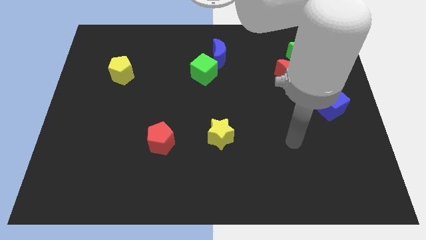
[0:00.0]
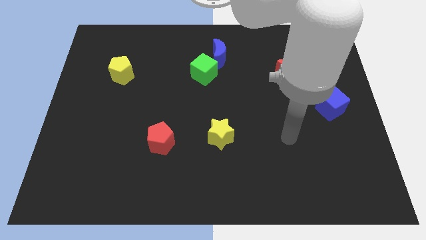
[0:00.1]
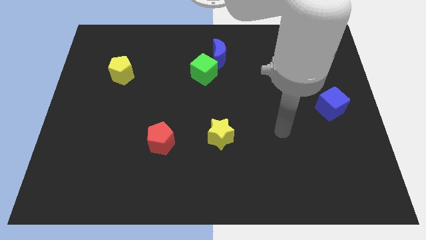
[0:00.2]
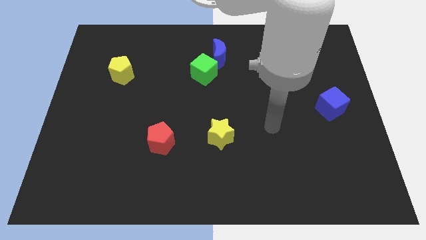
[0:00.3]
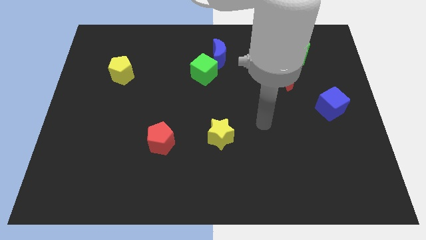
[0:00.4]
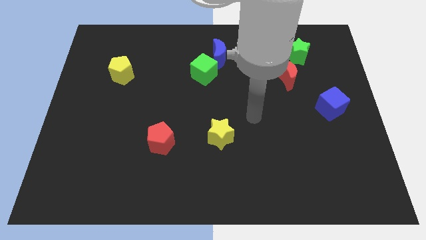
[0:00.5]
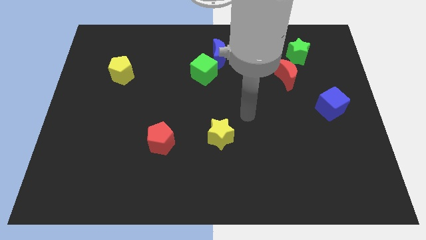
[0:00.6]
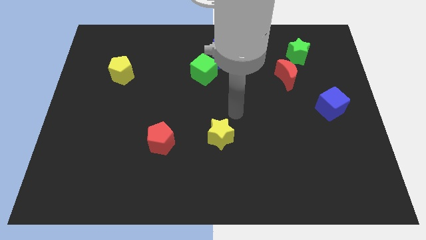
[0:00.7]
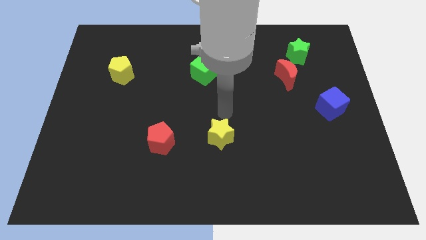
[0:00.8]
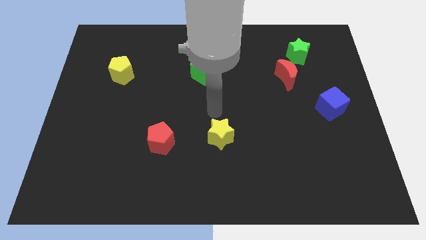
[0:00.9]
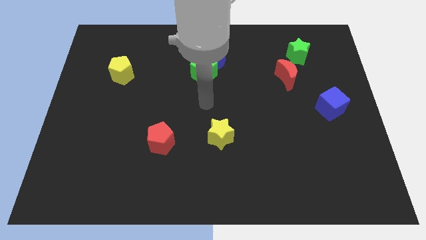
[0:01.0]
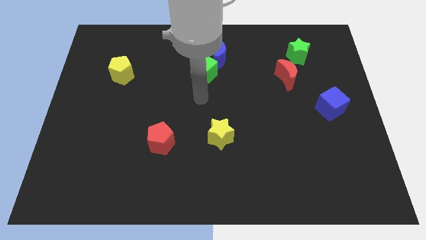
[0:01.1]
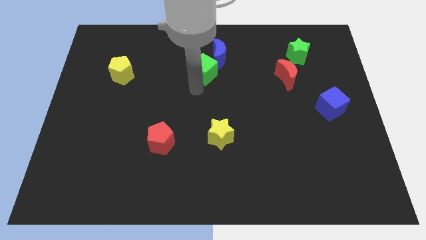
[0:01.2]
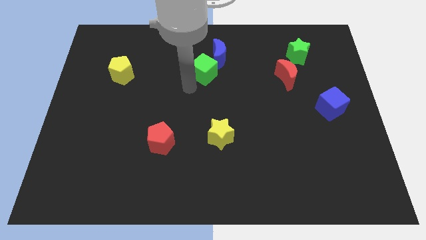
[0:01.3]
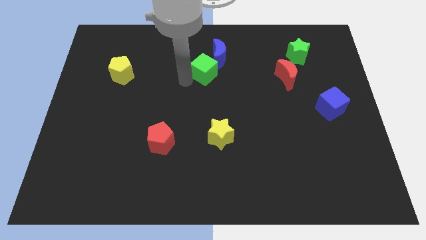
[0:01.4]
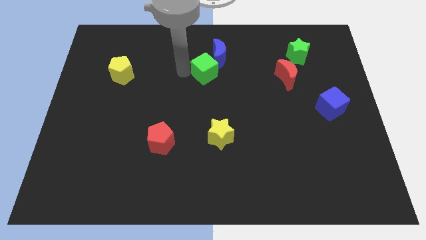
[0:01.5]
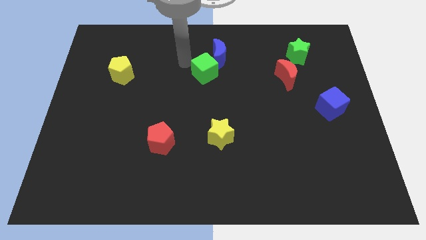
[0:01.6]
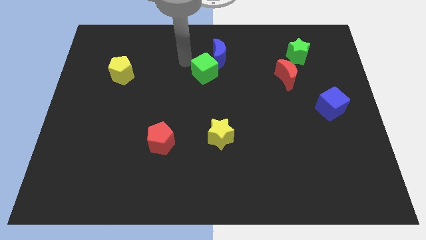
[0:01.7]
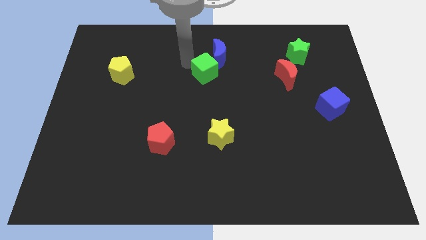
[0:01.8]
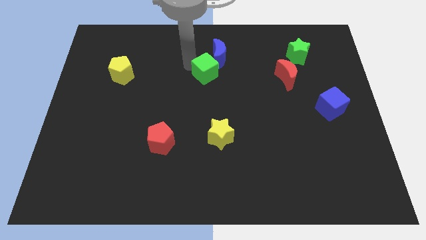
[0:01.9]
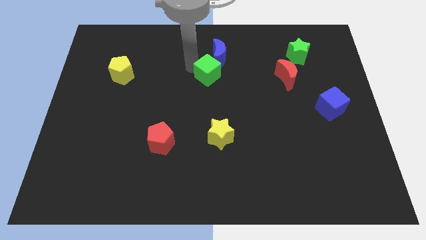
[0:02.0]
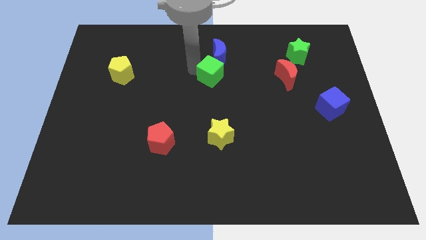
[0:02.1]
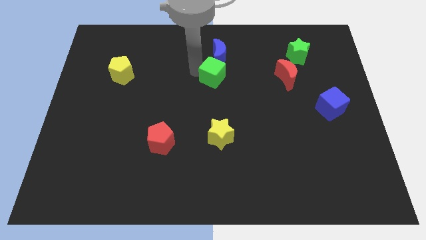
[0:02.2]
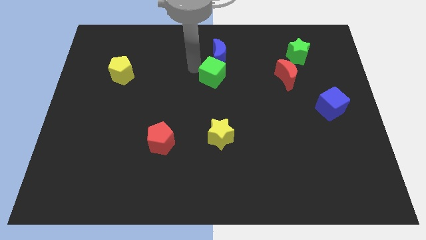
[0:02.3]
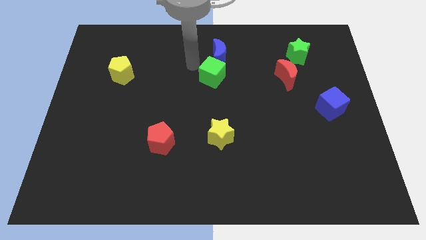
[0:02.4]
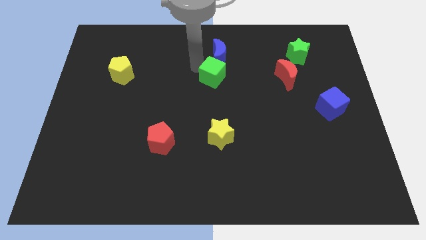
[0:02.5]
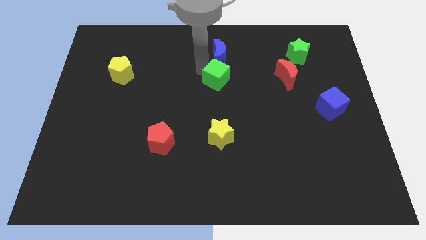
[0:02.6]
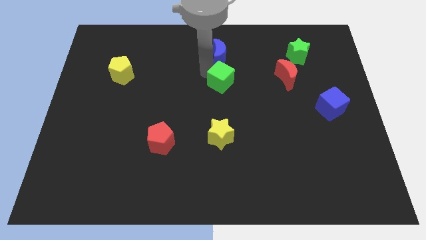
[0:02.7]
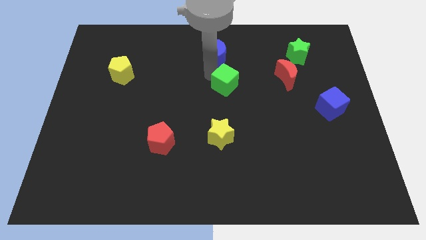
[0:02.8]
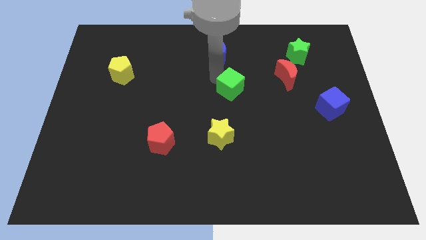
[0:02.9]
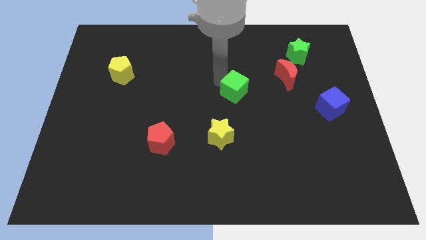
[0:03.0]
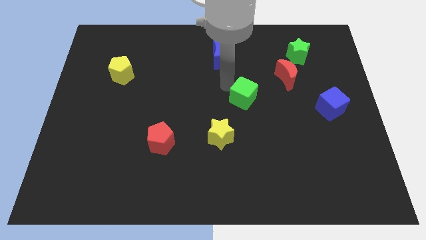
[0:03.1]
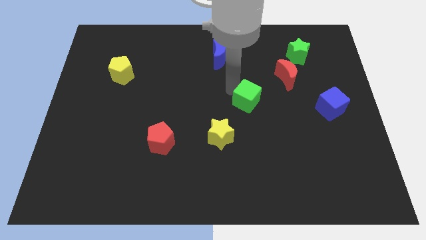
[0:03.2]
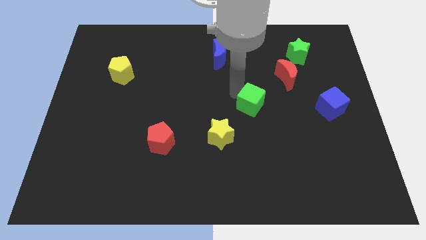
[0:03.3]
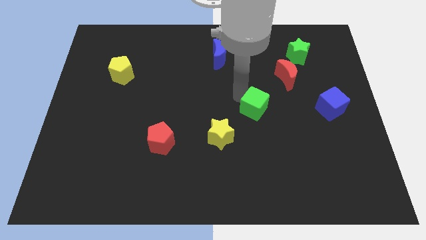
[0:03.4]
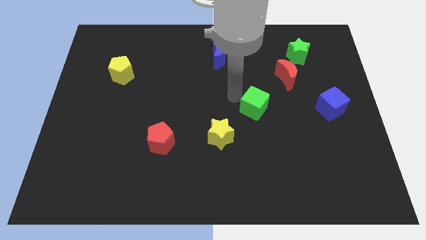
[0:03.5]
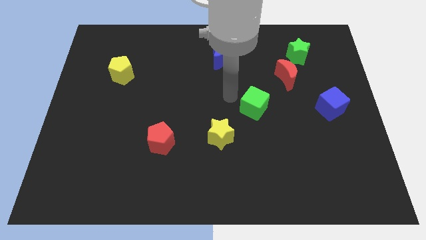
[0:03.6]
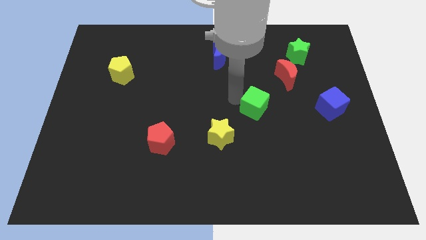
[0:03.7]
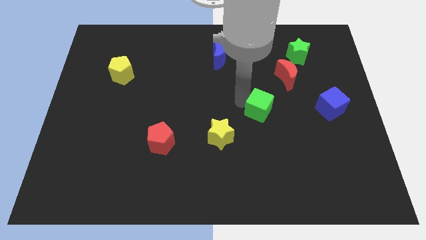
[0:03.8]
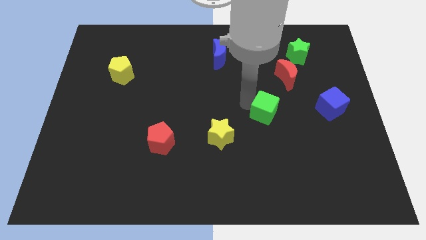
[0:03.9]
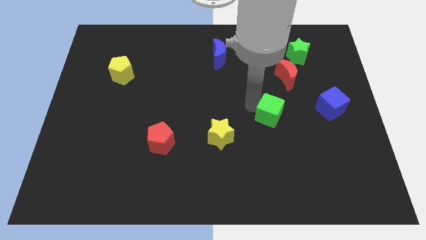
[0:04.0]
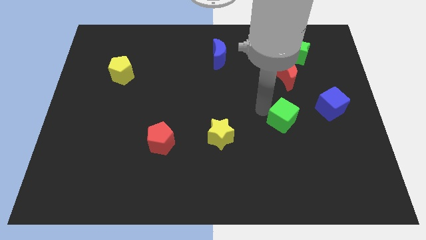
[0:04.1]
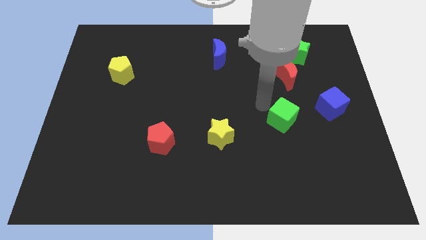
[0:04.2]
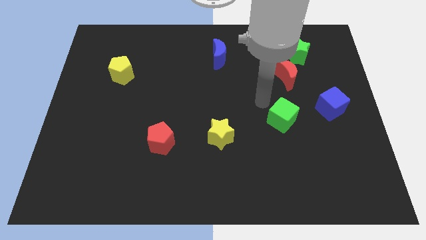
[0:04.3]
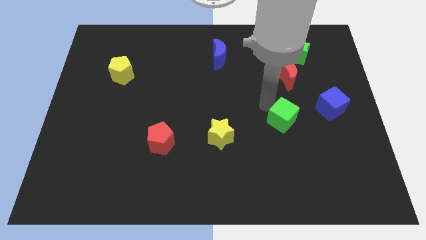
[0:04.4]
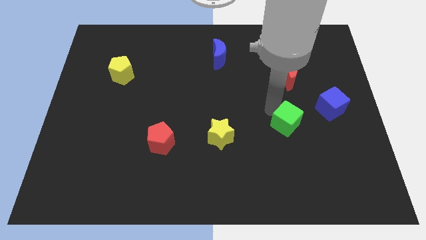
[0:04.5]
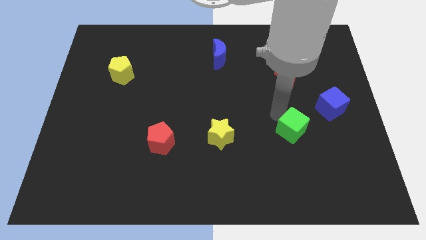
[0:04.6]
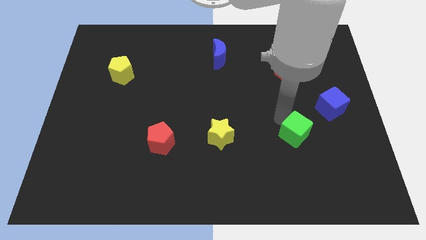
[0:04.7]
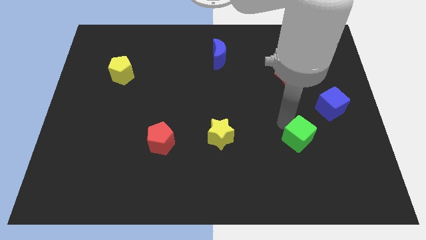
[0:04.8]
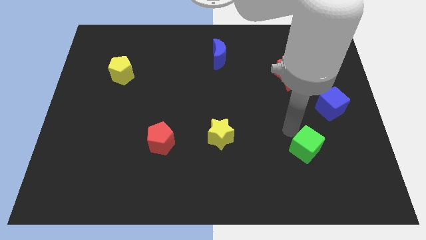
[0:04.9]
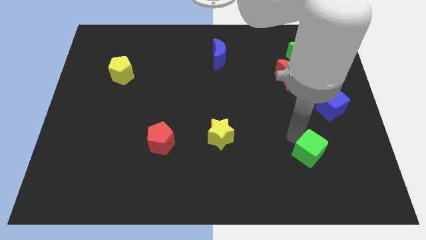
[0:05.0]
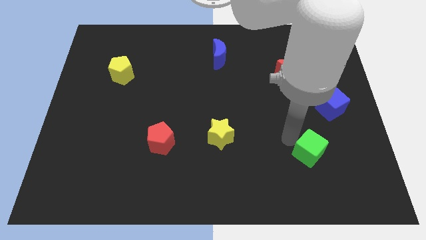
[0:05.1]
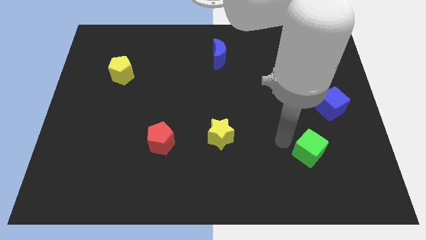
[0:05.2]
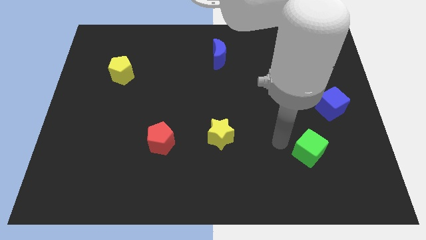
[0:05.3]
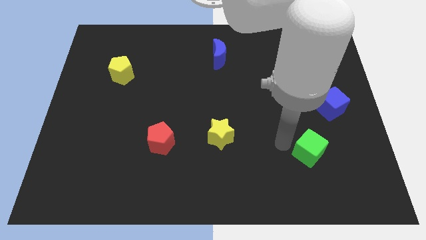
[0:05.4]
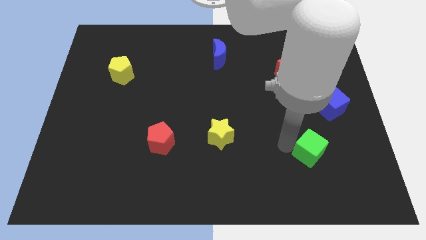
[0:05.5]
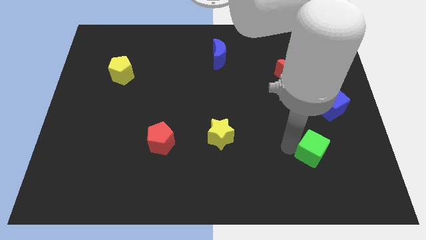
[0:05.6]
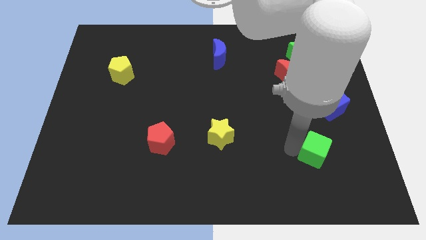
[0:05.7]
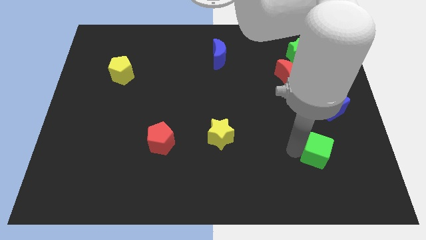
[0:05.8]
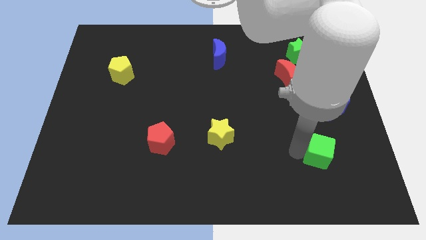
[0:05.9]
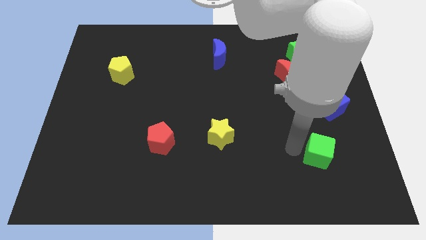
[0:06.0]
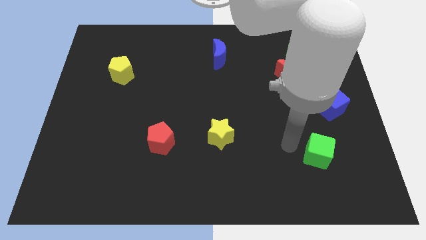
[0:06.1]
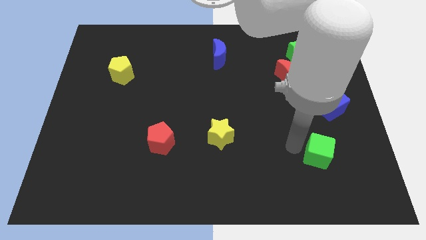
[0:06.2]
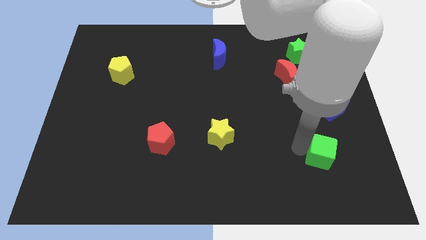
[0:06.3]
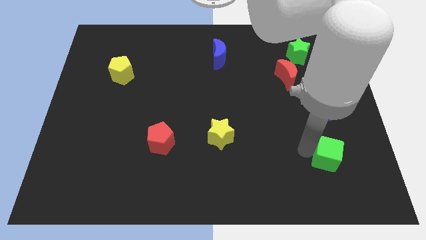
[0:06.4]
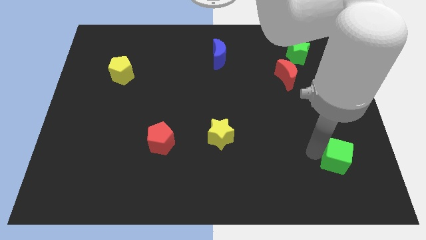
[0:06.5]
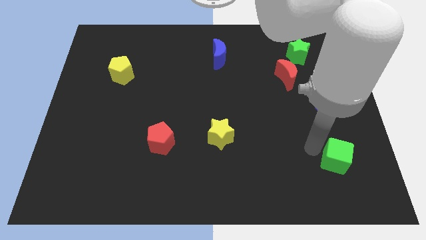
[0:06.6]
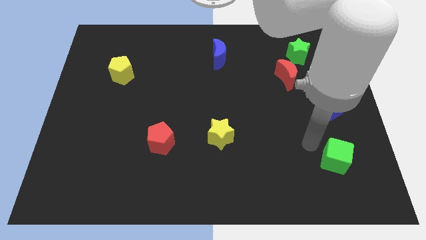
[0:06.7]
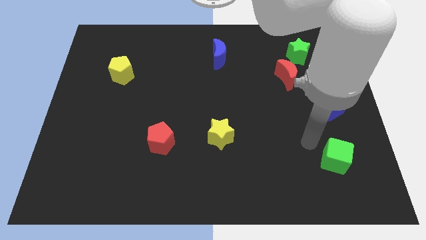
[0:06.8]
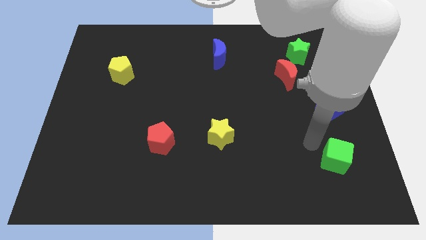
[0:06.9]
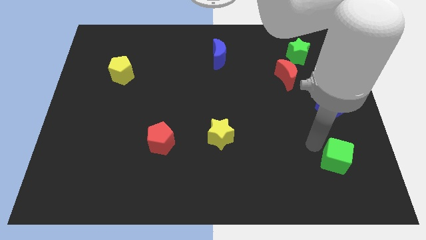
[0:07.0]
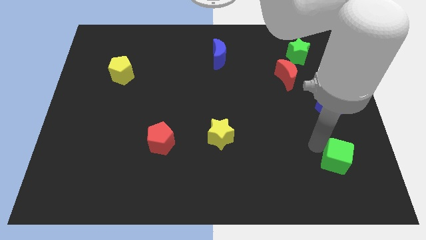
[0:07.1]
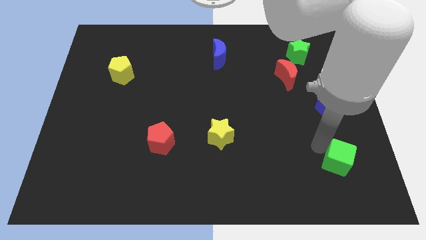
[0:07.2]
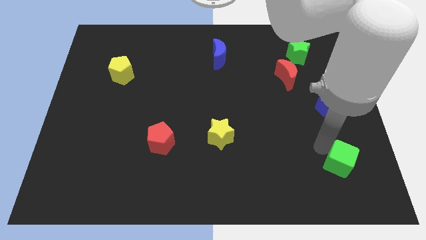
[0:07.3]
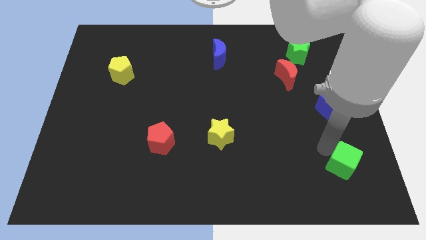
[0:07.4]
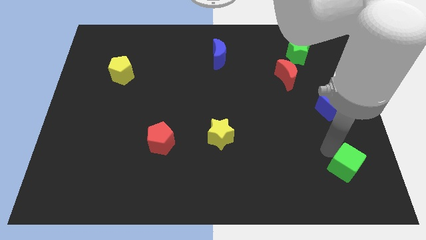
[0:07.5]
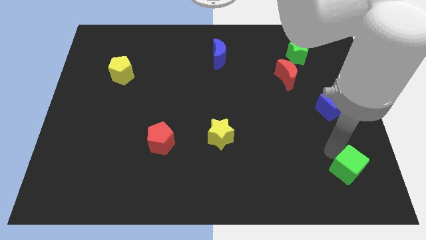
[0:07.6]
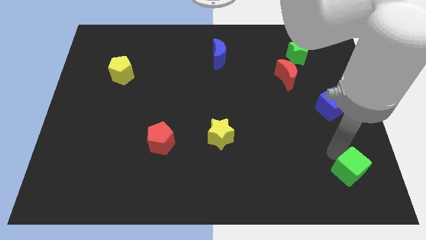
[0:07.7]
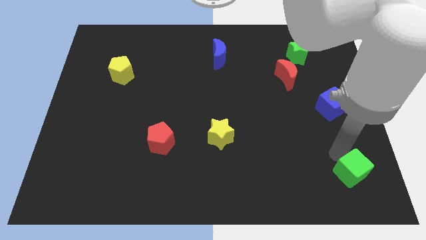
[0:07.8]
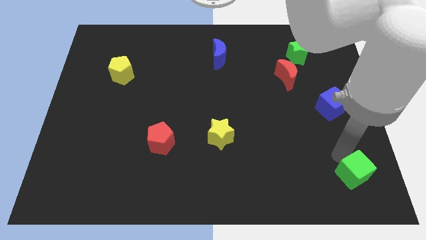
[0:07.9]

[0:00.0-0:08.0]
put the green cube to the bottom right of the board
